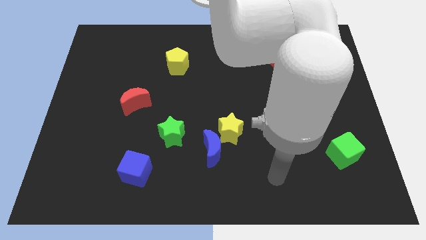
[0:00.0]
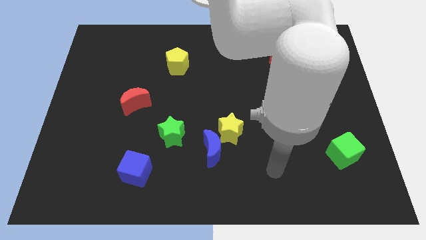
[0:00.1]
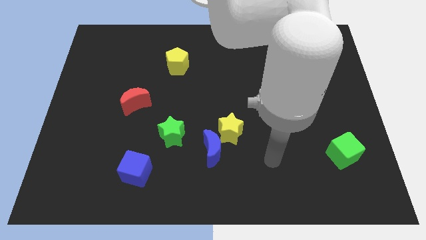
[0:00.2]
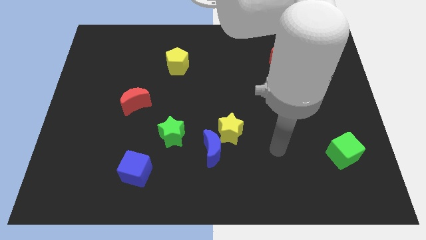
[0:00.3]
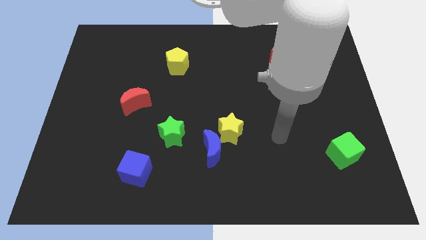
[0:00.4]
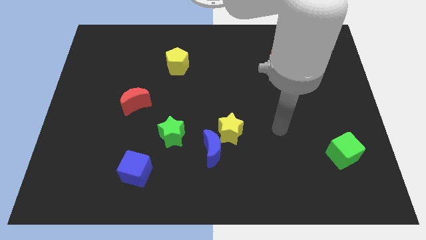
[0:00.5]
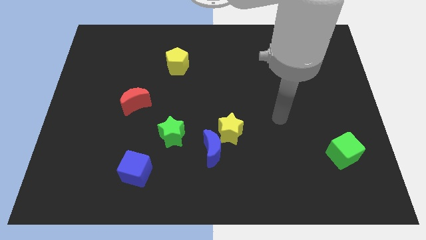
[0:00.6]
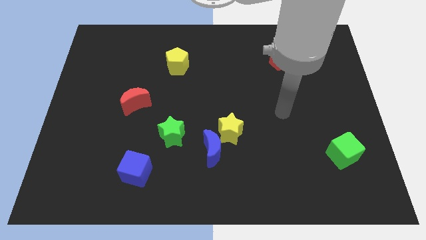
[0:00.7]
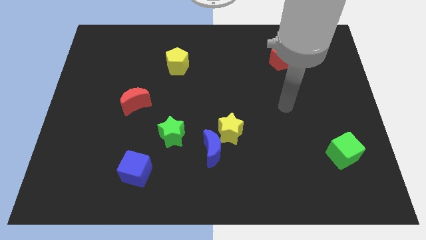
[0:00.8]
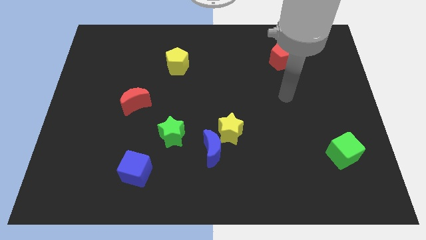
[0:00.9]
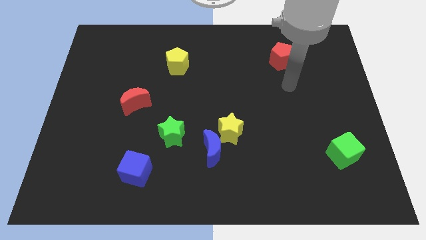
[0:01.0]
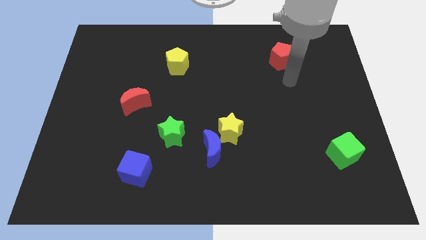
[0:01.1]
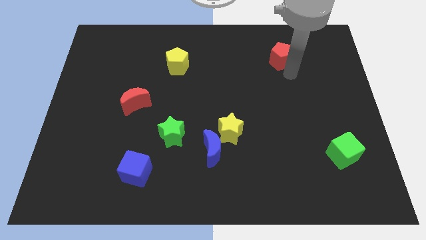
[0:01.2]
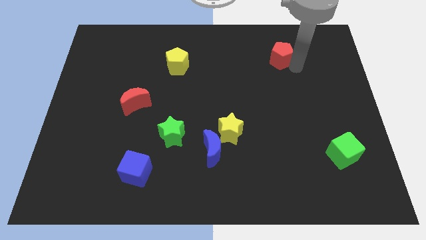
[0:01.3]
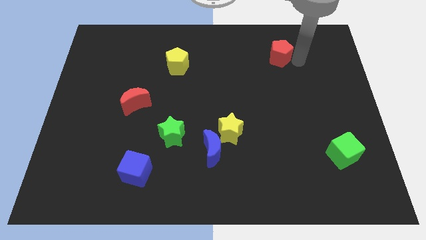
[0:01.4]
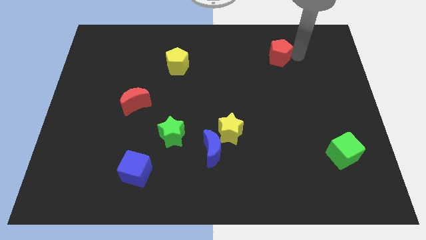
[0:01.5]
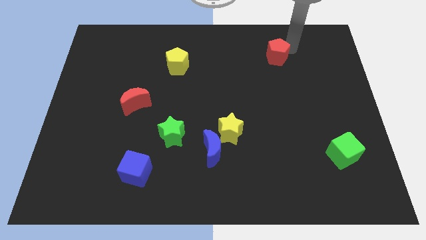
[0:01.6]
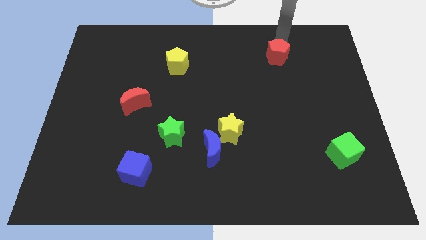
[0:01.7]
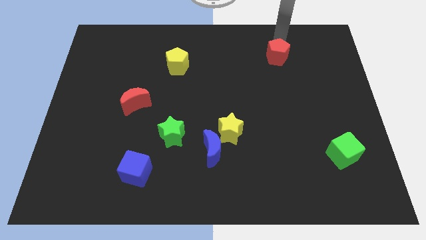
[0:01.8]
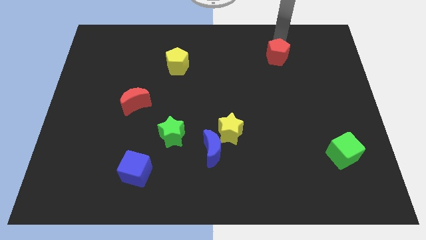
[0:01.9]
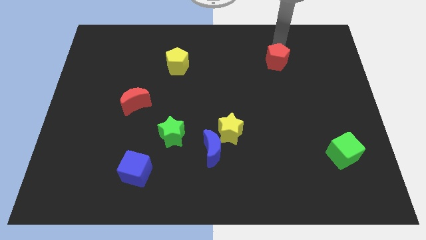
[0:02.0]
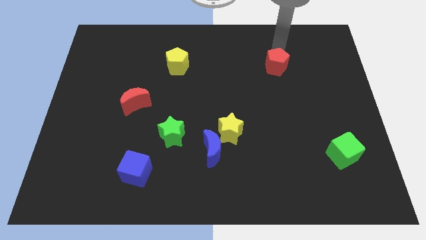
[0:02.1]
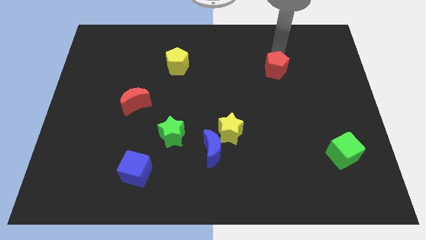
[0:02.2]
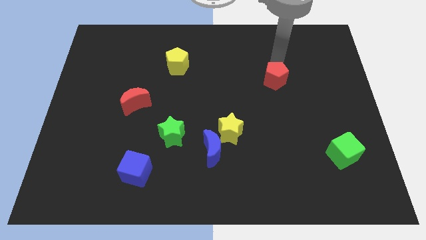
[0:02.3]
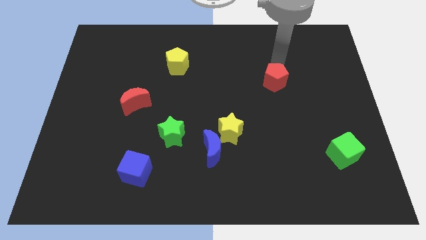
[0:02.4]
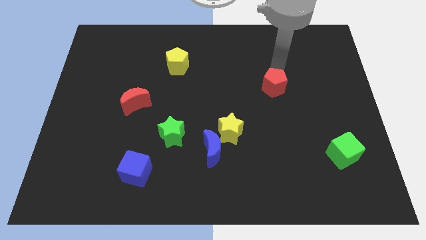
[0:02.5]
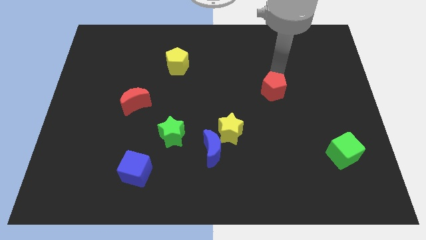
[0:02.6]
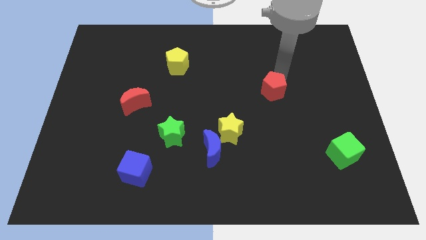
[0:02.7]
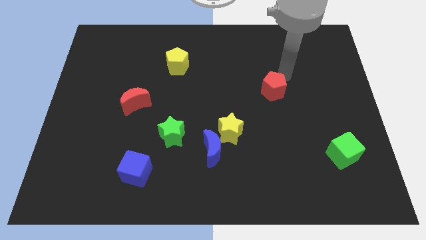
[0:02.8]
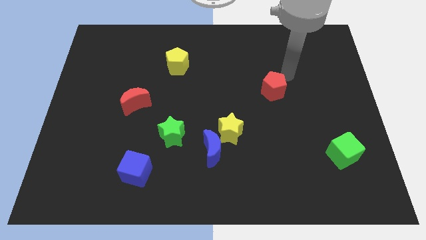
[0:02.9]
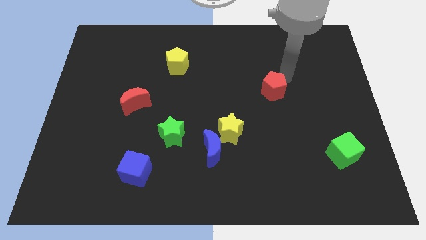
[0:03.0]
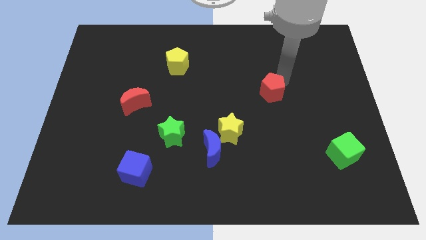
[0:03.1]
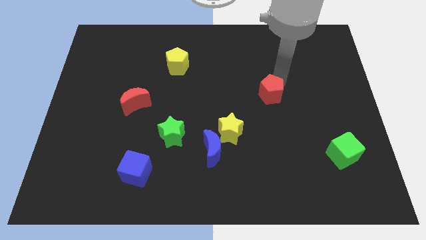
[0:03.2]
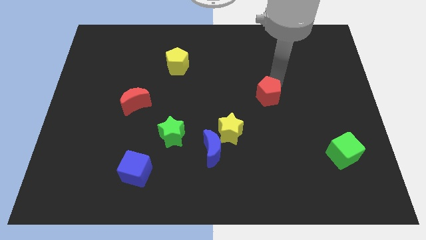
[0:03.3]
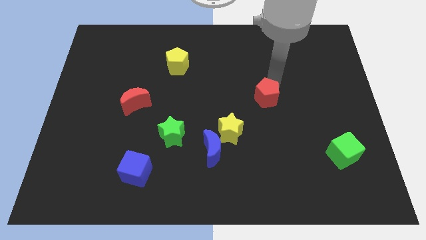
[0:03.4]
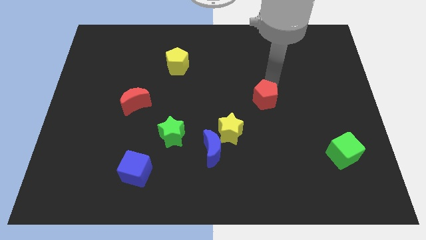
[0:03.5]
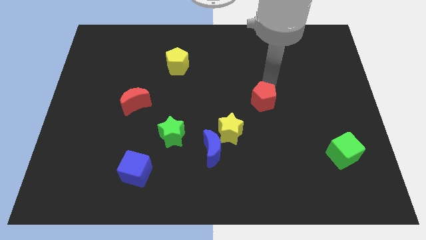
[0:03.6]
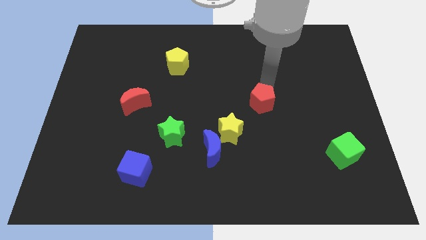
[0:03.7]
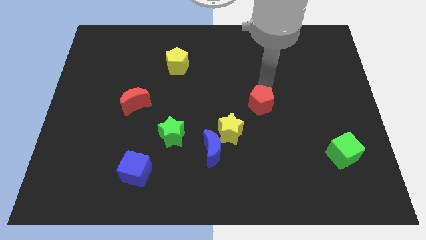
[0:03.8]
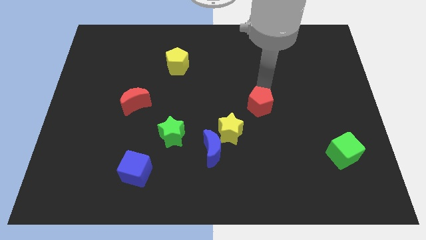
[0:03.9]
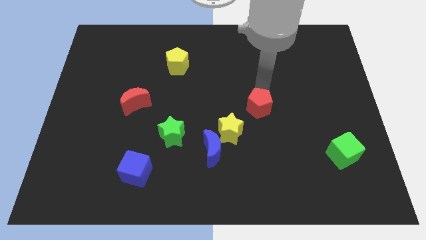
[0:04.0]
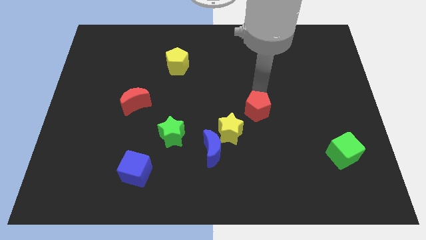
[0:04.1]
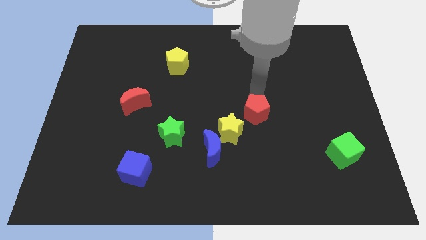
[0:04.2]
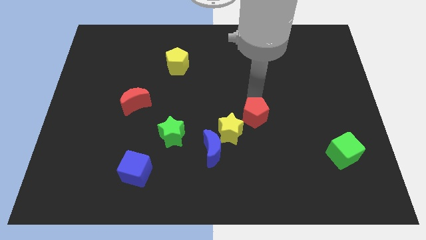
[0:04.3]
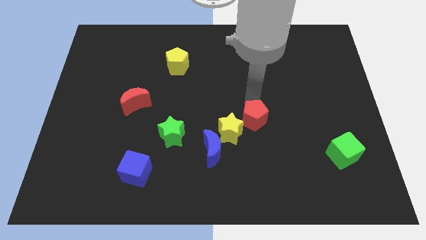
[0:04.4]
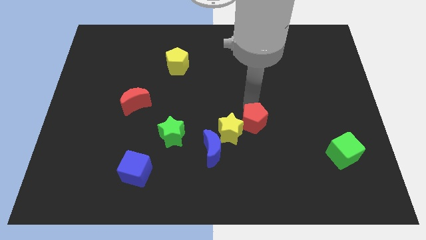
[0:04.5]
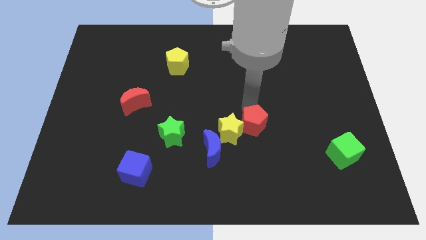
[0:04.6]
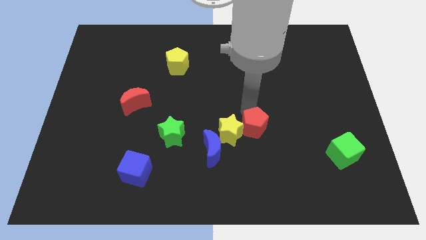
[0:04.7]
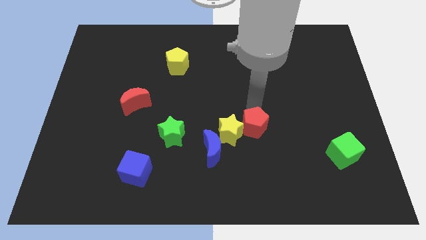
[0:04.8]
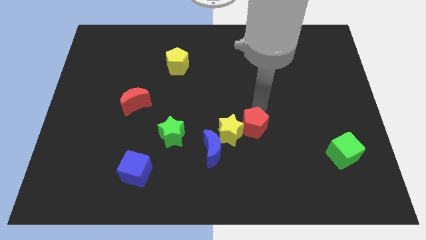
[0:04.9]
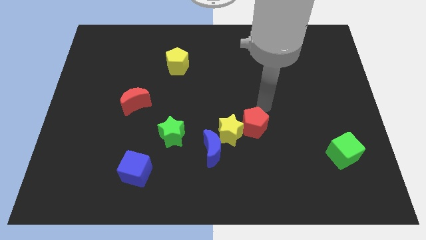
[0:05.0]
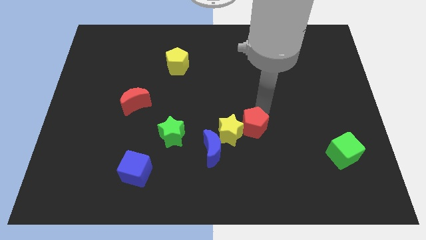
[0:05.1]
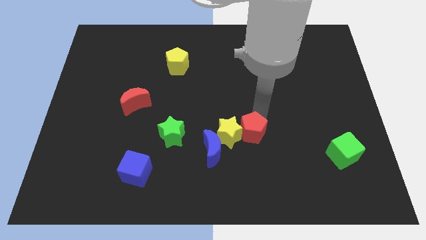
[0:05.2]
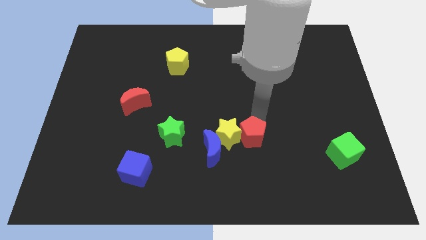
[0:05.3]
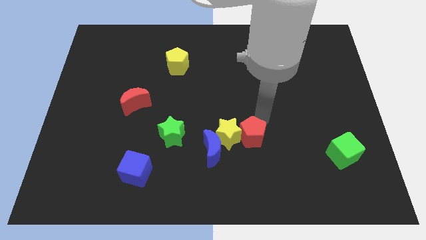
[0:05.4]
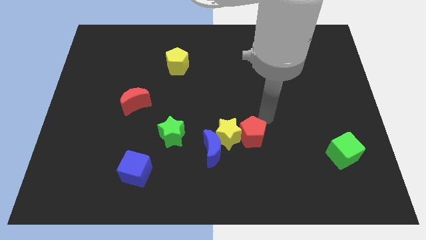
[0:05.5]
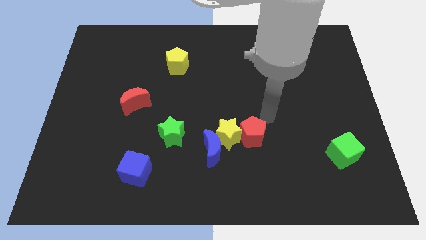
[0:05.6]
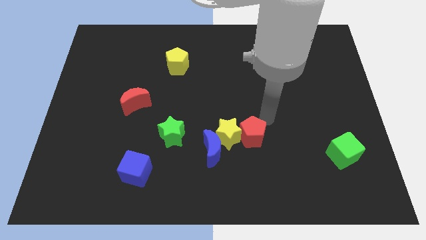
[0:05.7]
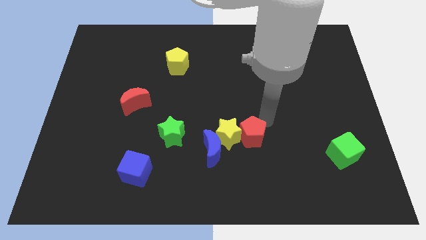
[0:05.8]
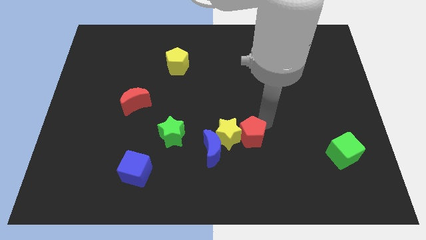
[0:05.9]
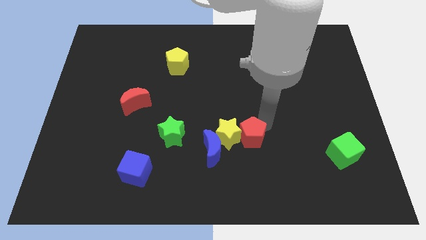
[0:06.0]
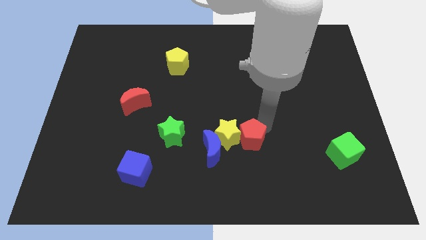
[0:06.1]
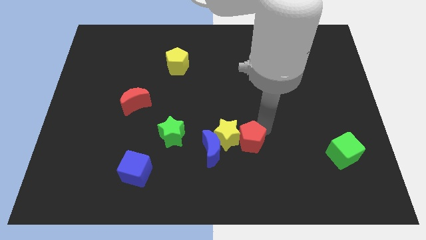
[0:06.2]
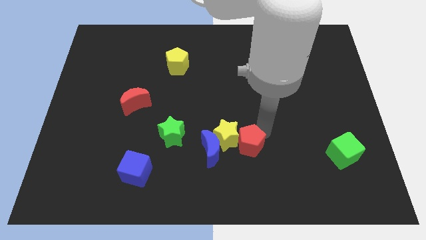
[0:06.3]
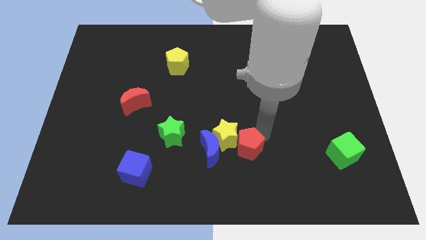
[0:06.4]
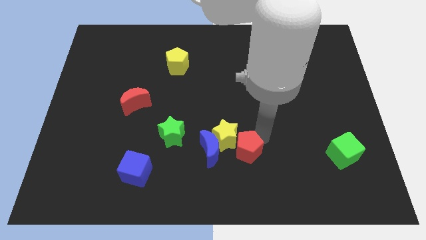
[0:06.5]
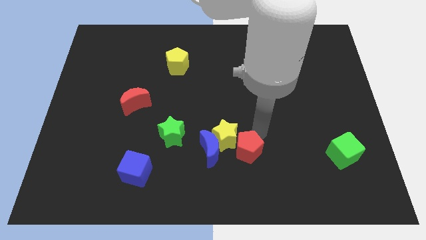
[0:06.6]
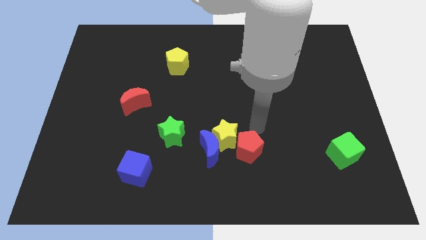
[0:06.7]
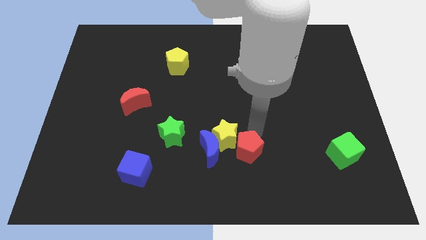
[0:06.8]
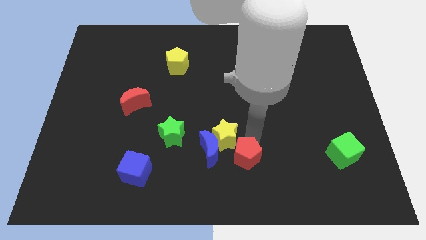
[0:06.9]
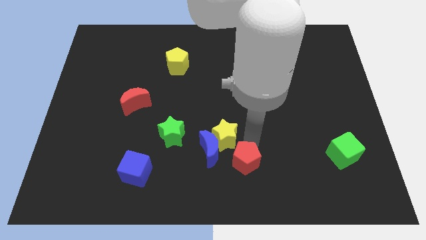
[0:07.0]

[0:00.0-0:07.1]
put the red pentagon to the bottom
